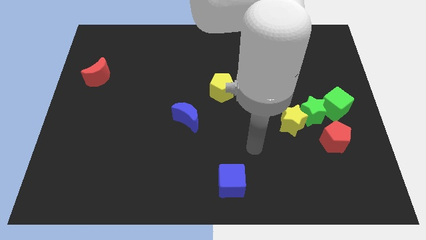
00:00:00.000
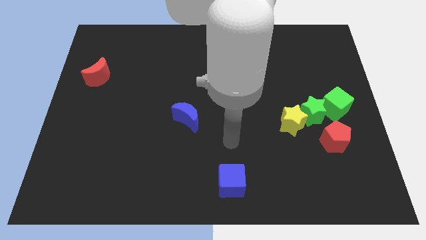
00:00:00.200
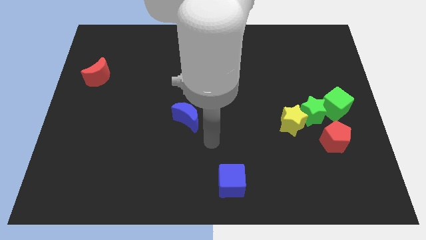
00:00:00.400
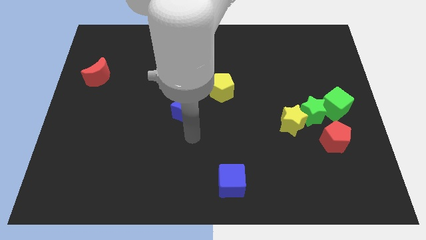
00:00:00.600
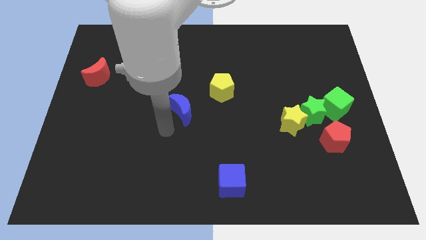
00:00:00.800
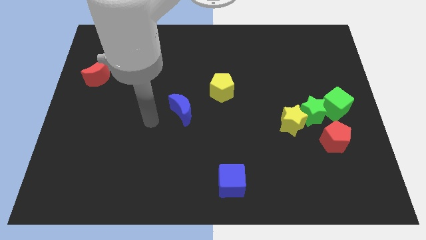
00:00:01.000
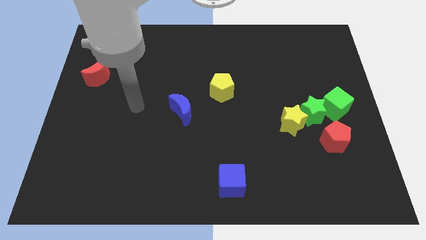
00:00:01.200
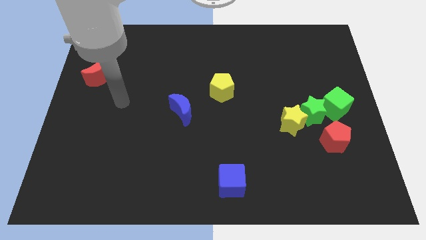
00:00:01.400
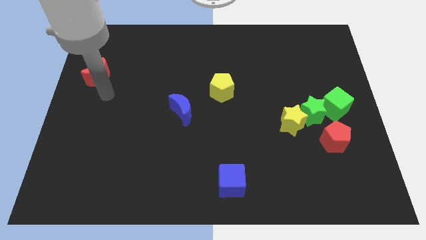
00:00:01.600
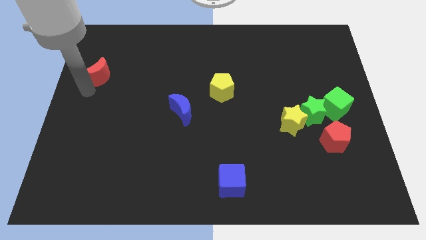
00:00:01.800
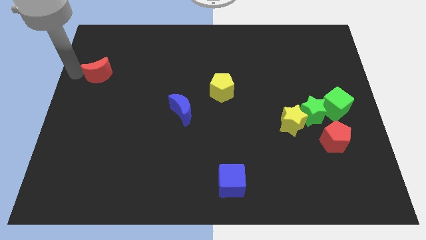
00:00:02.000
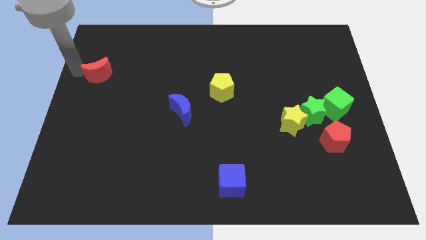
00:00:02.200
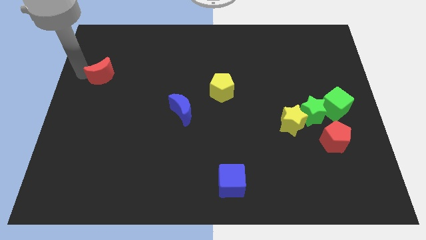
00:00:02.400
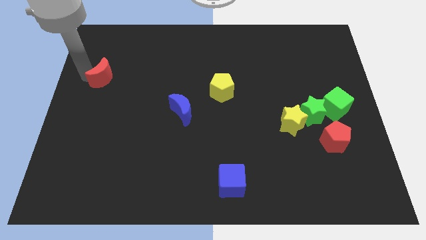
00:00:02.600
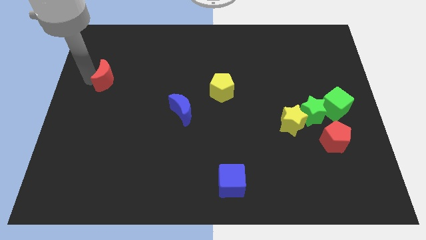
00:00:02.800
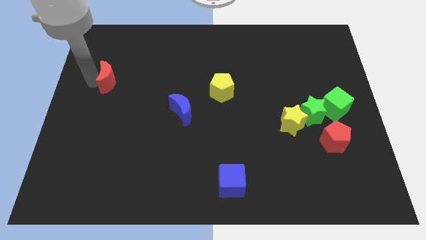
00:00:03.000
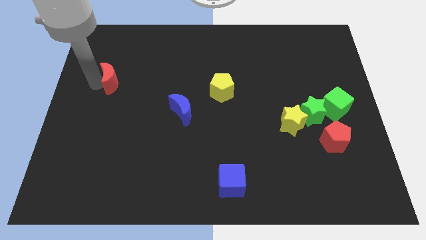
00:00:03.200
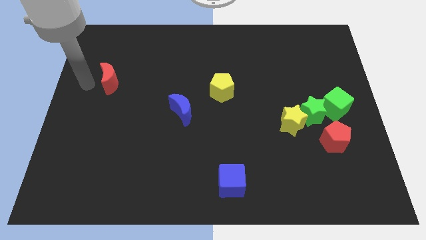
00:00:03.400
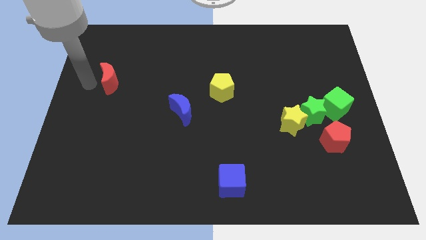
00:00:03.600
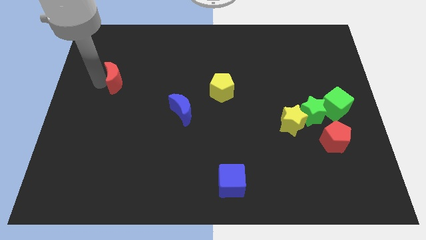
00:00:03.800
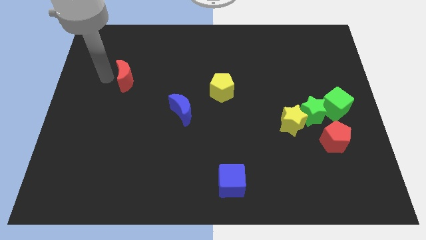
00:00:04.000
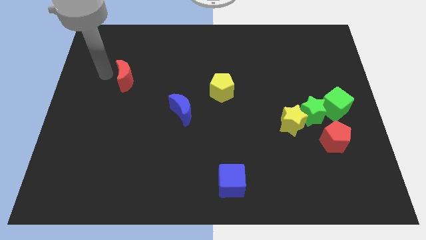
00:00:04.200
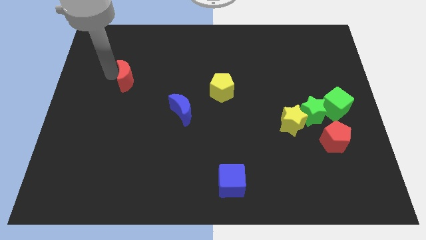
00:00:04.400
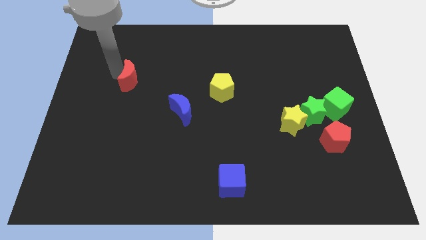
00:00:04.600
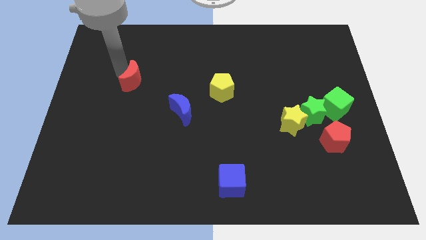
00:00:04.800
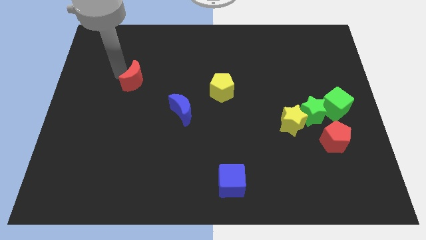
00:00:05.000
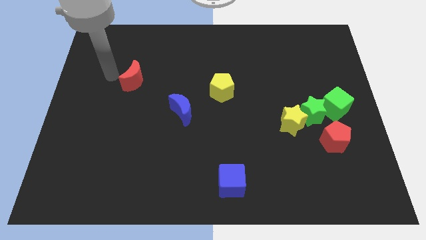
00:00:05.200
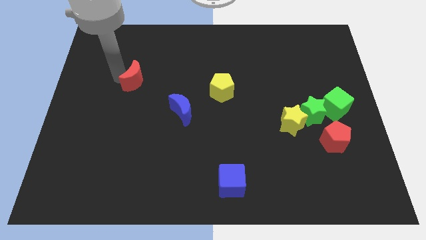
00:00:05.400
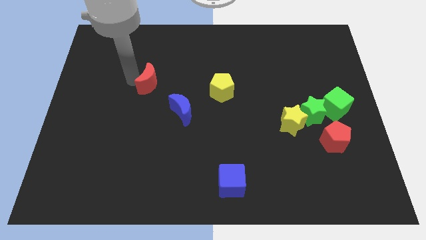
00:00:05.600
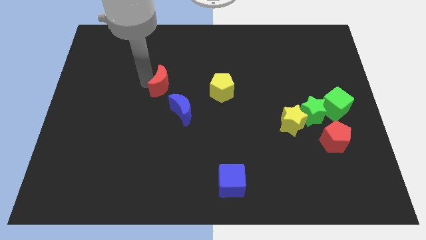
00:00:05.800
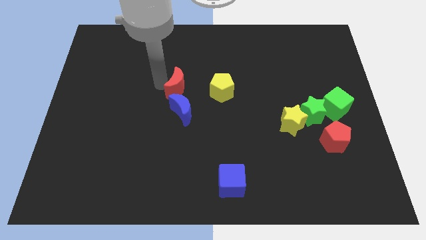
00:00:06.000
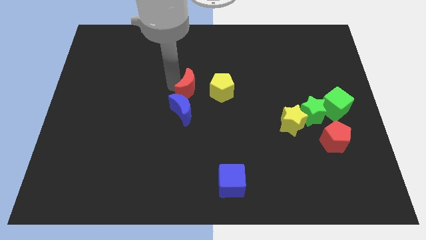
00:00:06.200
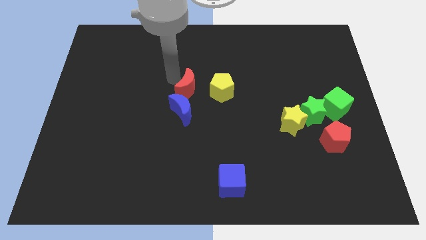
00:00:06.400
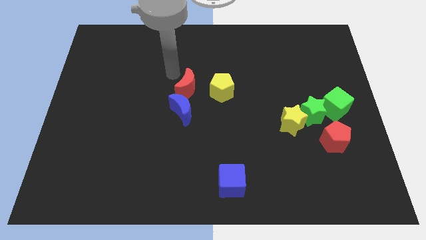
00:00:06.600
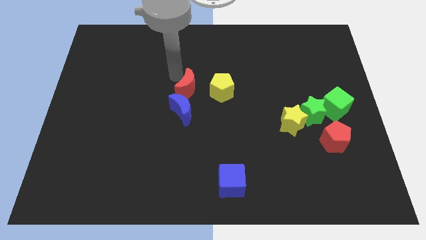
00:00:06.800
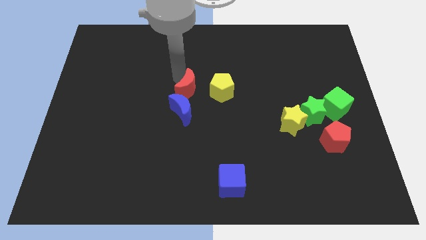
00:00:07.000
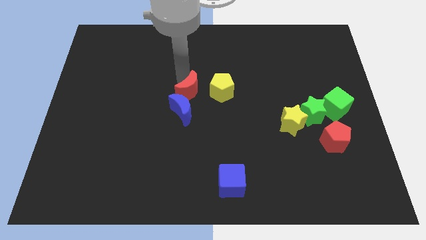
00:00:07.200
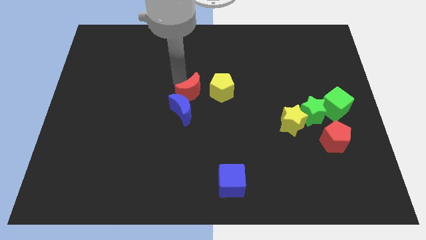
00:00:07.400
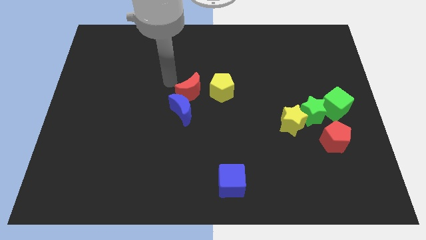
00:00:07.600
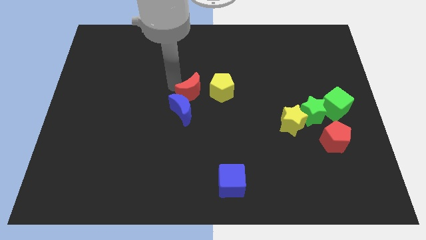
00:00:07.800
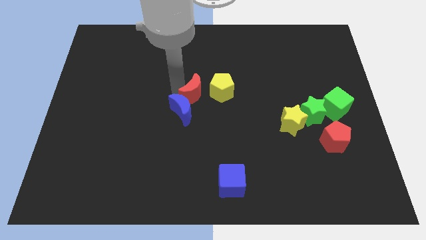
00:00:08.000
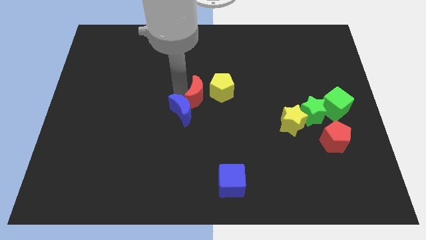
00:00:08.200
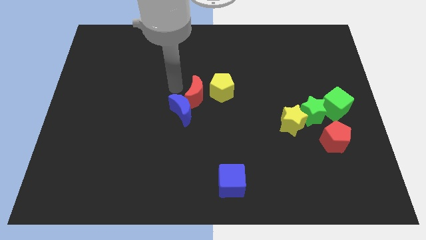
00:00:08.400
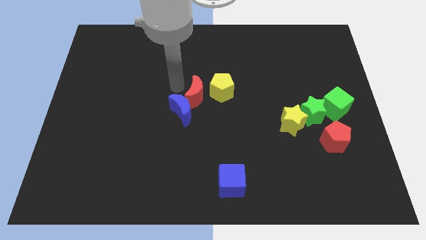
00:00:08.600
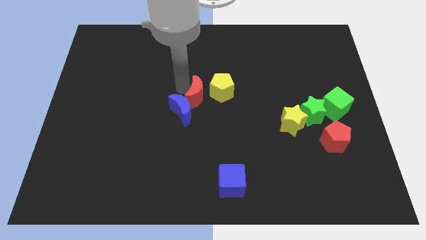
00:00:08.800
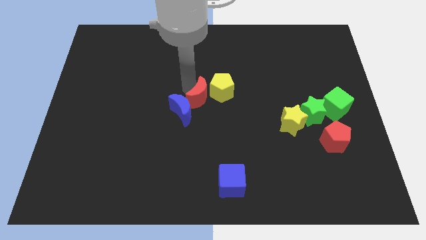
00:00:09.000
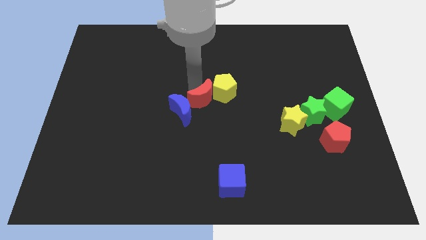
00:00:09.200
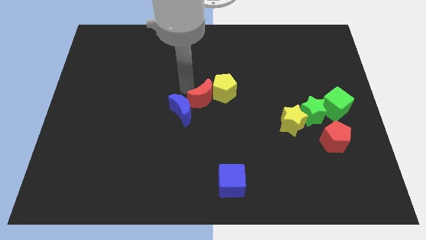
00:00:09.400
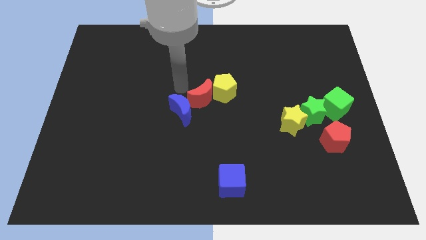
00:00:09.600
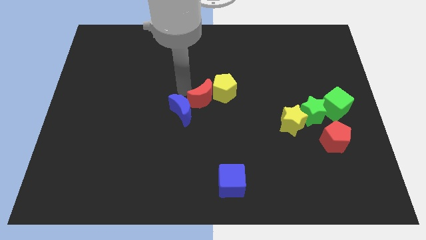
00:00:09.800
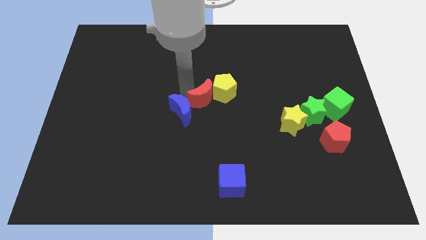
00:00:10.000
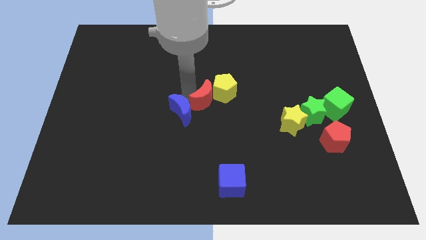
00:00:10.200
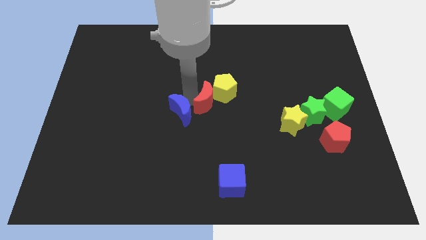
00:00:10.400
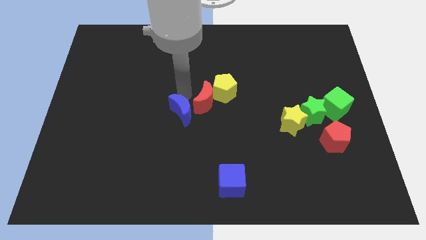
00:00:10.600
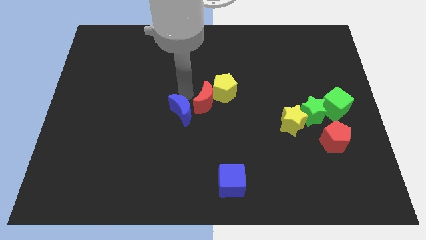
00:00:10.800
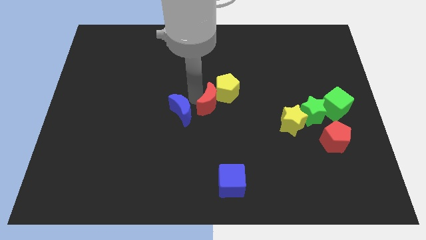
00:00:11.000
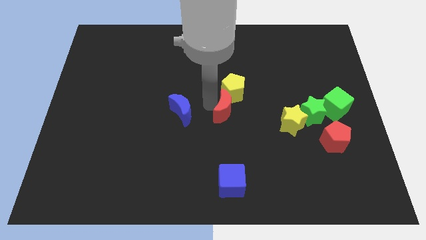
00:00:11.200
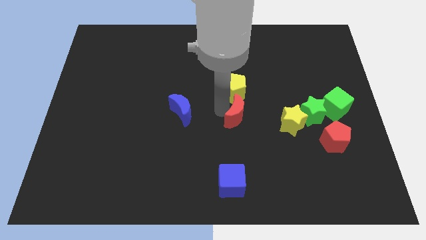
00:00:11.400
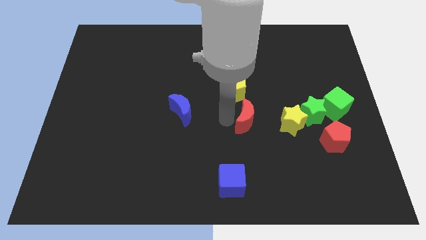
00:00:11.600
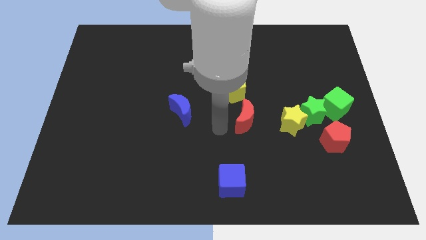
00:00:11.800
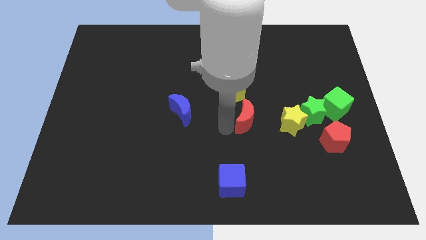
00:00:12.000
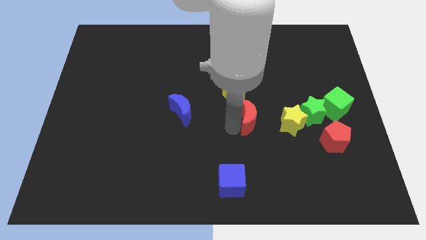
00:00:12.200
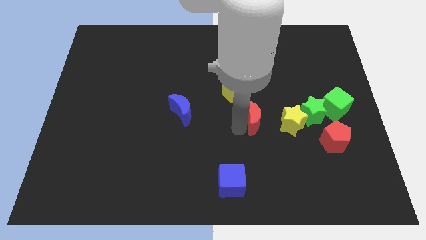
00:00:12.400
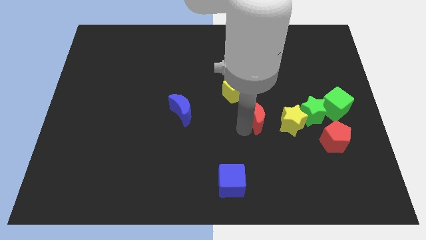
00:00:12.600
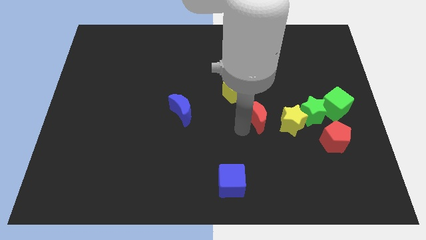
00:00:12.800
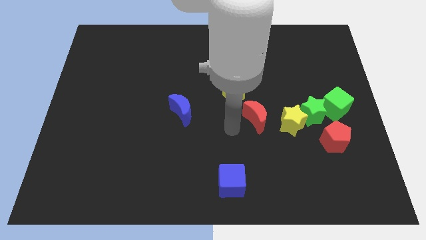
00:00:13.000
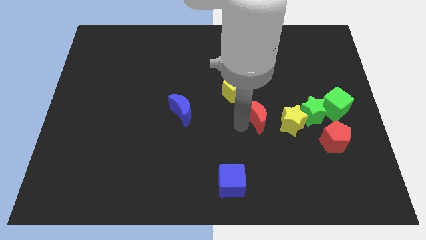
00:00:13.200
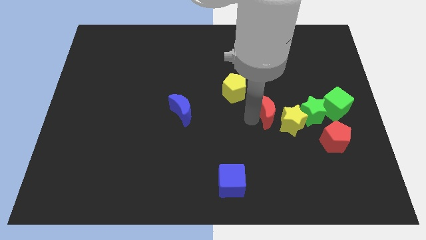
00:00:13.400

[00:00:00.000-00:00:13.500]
move the red moon towards the yellow star

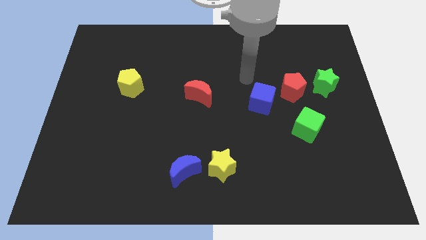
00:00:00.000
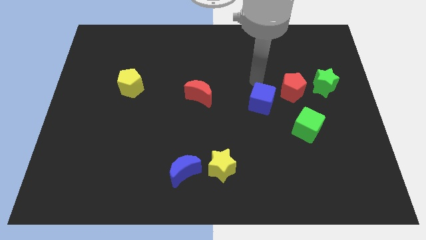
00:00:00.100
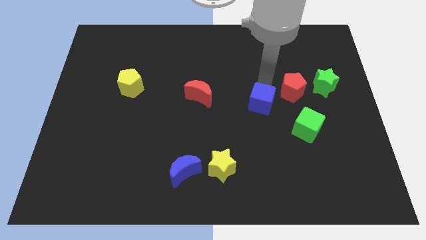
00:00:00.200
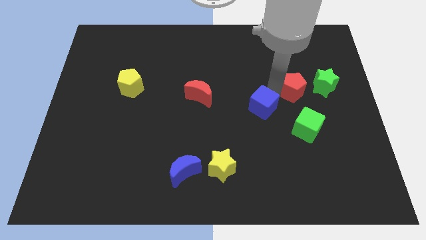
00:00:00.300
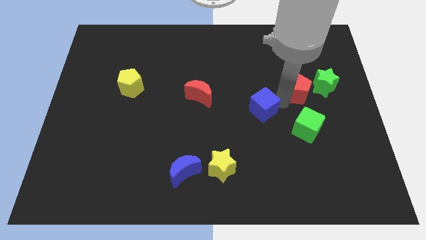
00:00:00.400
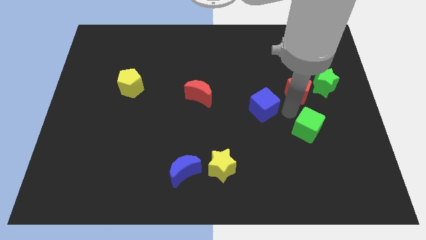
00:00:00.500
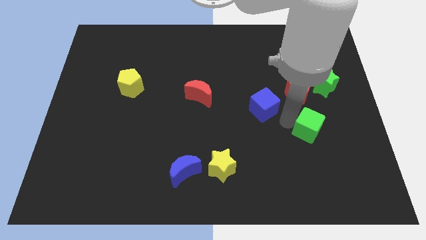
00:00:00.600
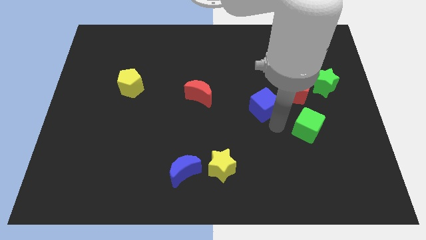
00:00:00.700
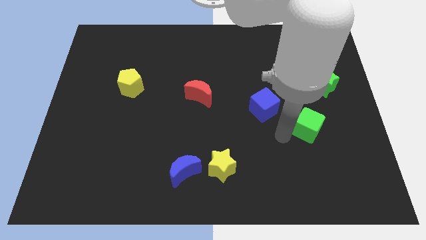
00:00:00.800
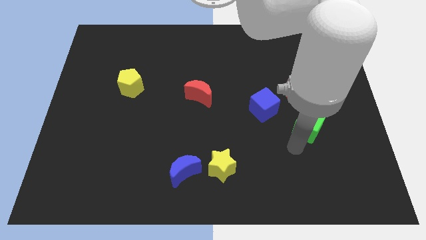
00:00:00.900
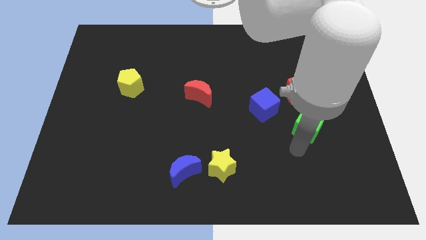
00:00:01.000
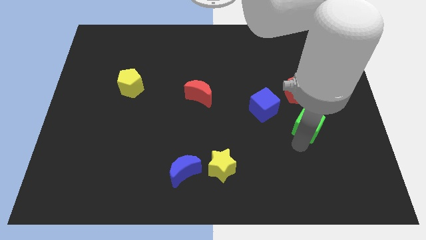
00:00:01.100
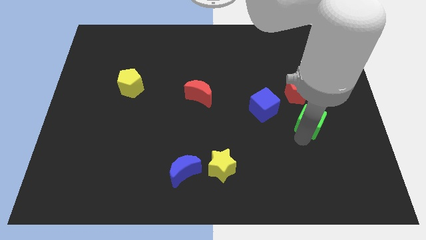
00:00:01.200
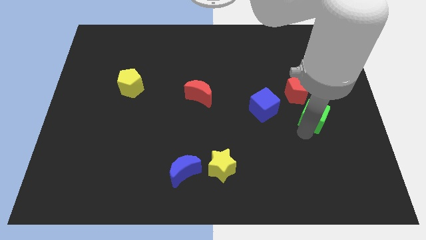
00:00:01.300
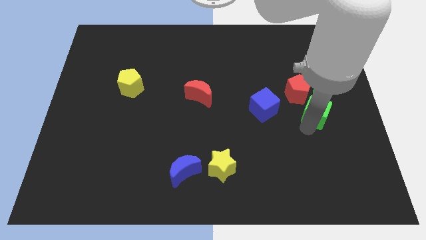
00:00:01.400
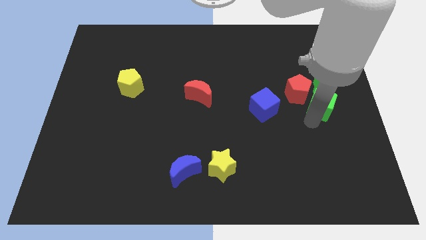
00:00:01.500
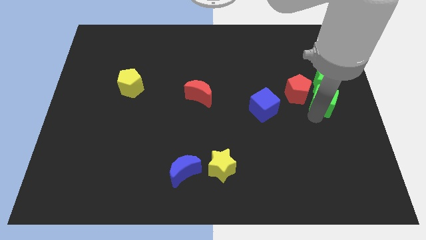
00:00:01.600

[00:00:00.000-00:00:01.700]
put the green cube towards the green star
